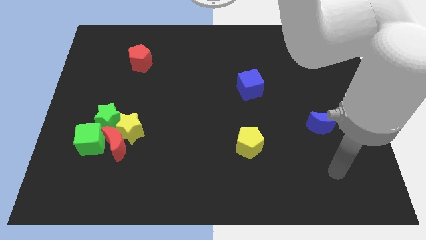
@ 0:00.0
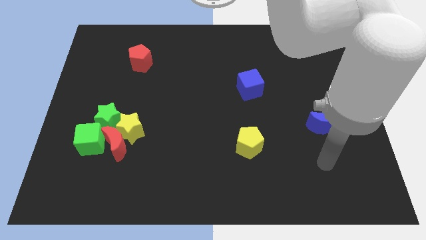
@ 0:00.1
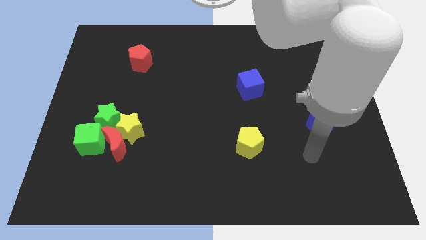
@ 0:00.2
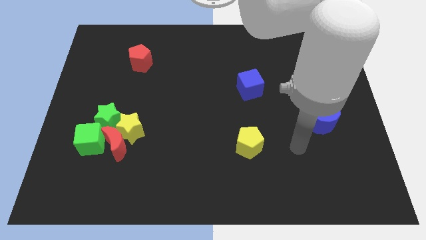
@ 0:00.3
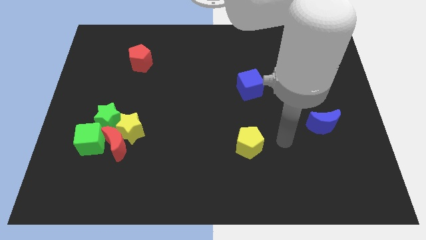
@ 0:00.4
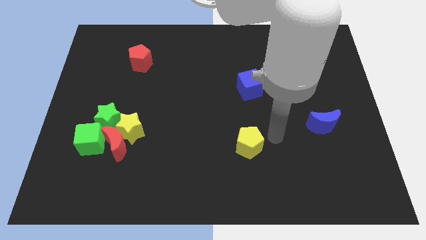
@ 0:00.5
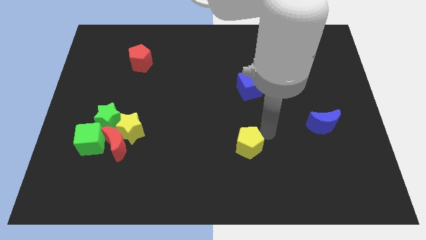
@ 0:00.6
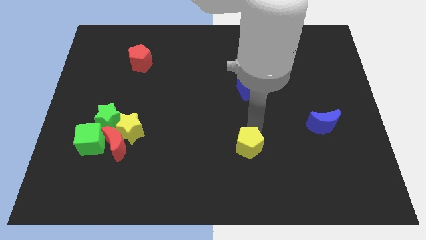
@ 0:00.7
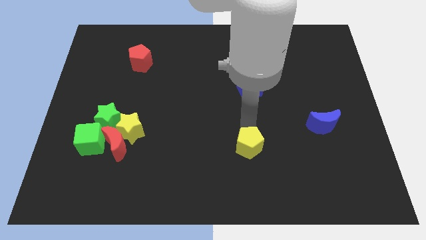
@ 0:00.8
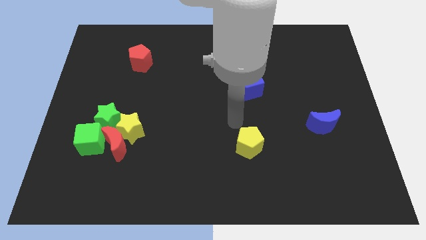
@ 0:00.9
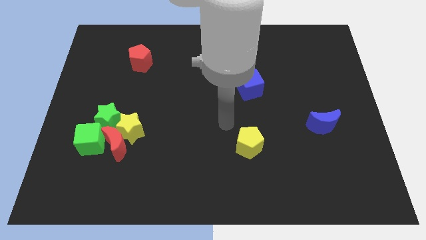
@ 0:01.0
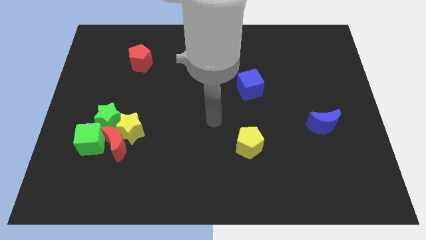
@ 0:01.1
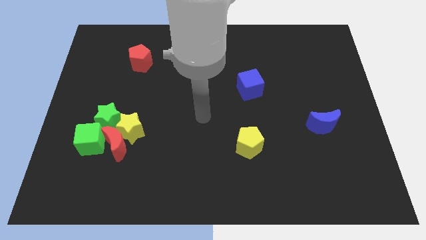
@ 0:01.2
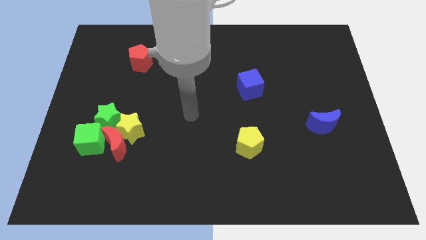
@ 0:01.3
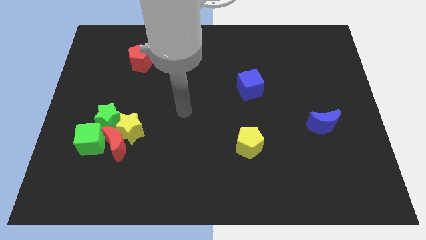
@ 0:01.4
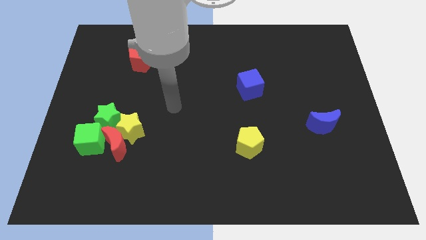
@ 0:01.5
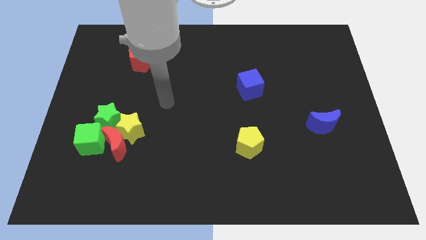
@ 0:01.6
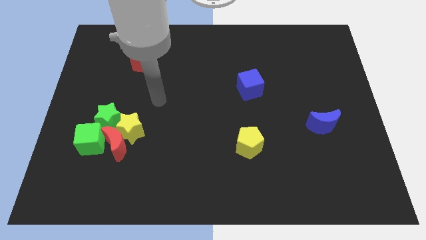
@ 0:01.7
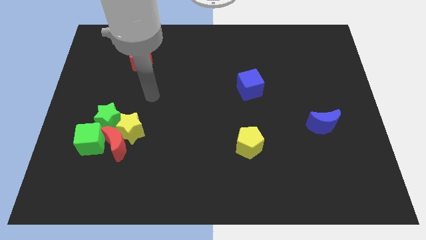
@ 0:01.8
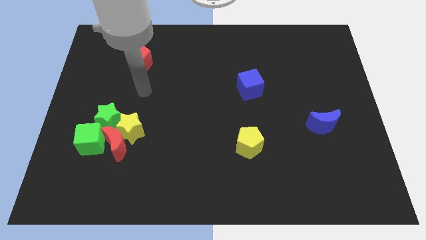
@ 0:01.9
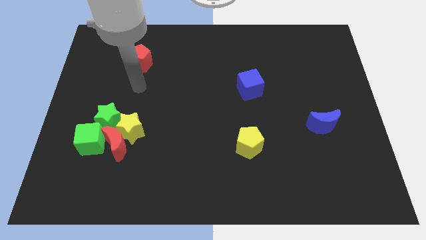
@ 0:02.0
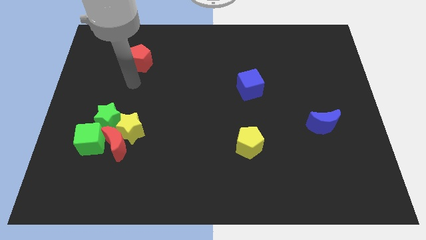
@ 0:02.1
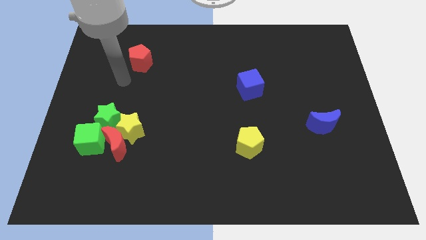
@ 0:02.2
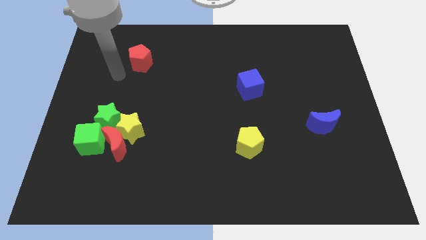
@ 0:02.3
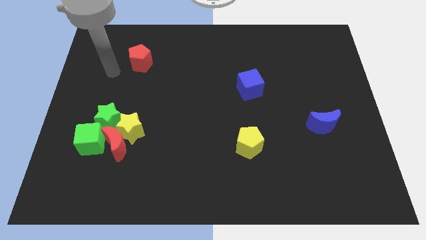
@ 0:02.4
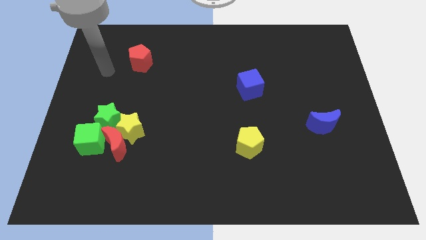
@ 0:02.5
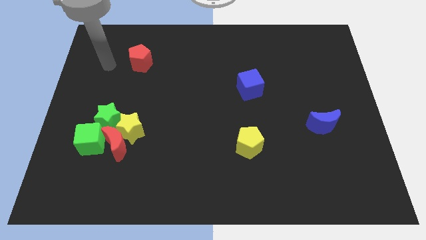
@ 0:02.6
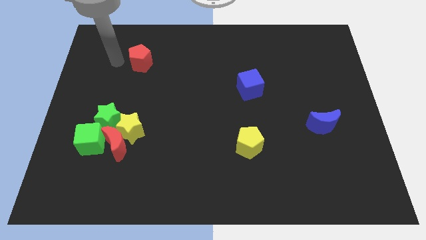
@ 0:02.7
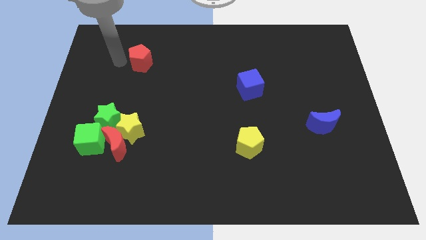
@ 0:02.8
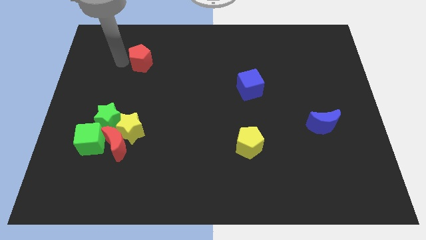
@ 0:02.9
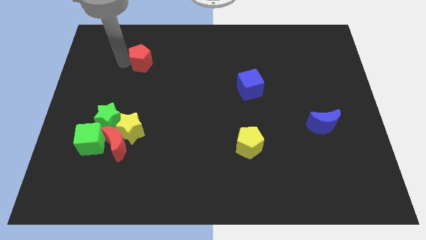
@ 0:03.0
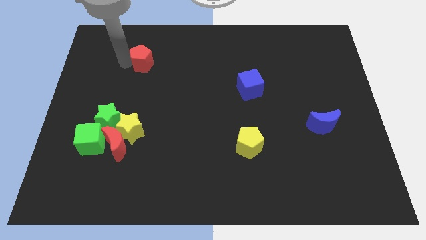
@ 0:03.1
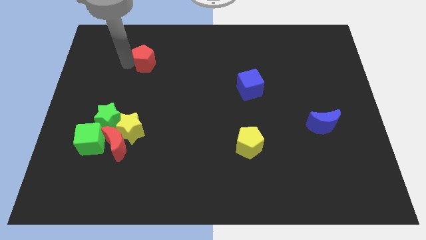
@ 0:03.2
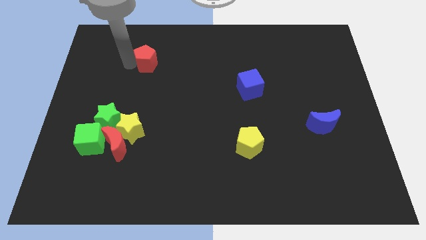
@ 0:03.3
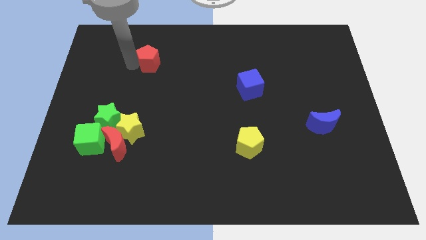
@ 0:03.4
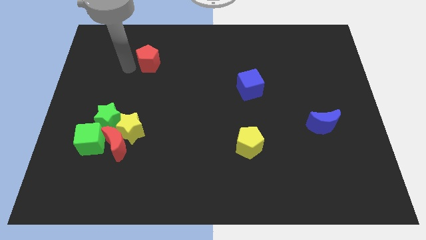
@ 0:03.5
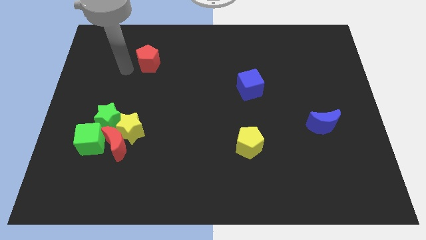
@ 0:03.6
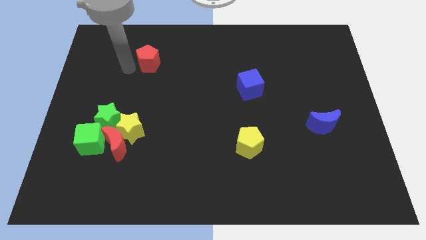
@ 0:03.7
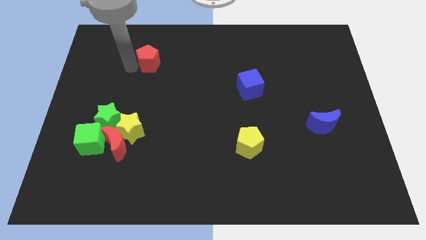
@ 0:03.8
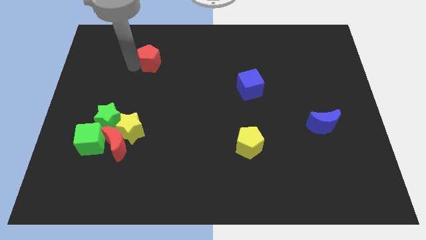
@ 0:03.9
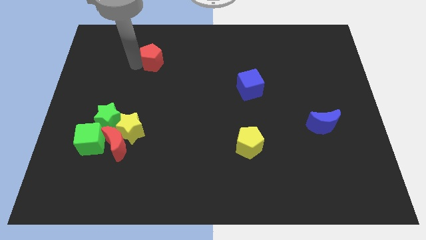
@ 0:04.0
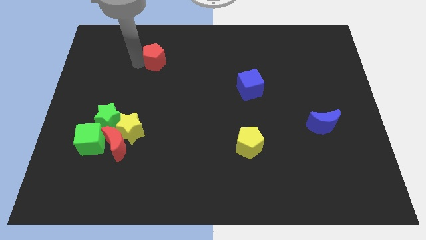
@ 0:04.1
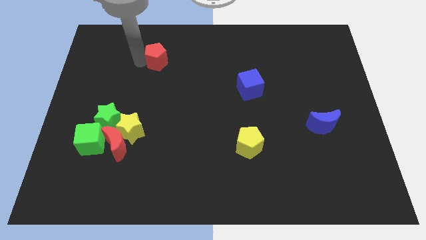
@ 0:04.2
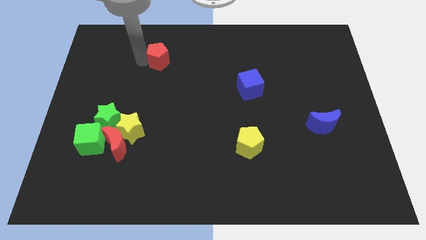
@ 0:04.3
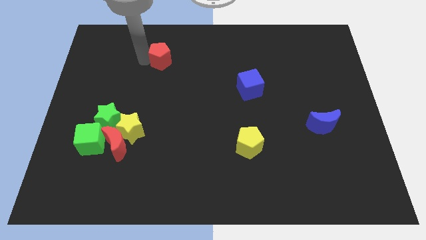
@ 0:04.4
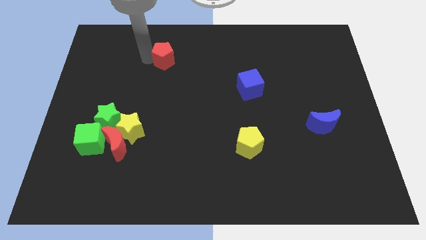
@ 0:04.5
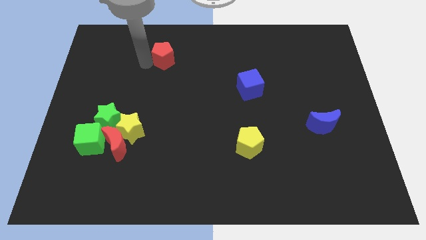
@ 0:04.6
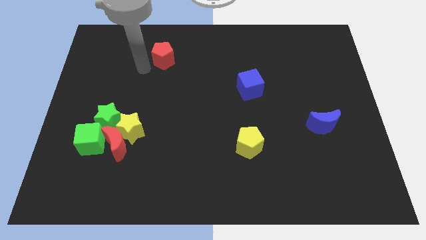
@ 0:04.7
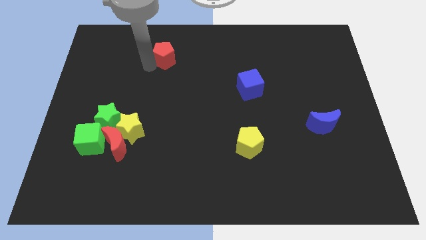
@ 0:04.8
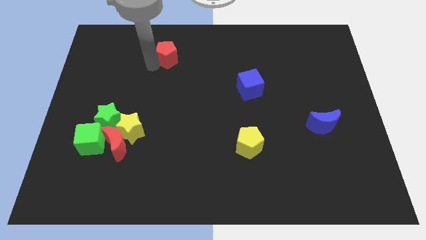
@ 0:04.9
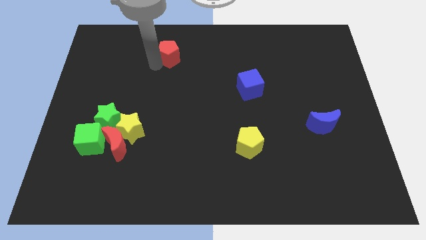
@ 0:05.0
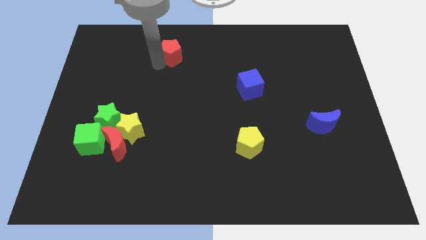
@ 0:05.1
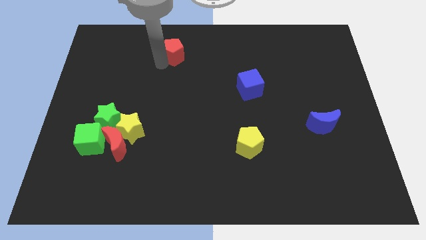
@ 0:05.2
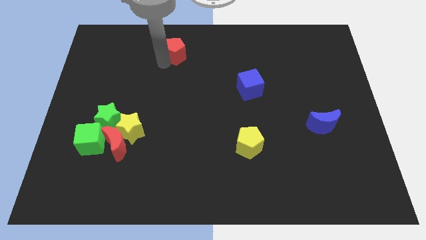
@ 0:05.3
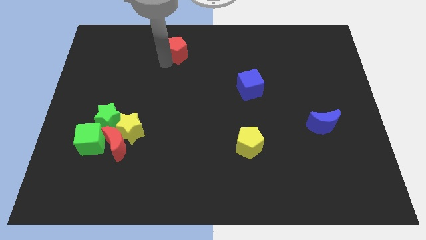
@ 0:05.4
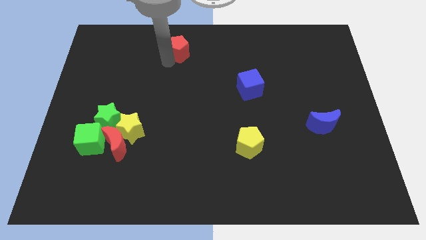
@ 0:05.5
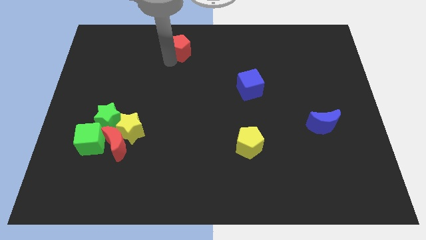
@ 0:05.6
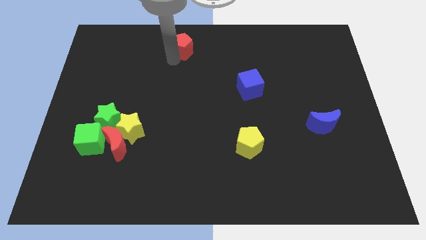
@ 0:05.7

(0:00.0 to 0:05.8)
push the red pentagon to the top side
